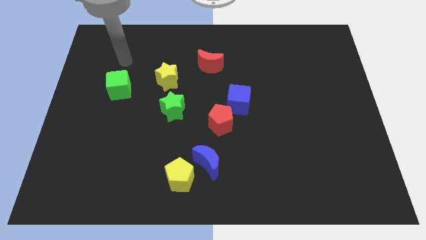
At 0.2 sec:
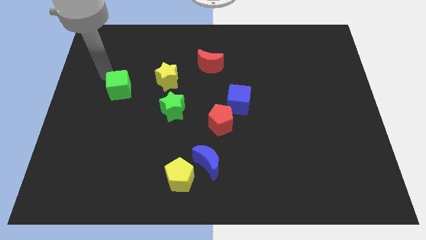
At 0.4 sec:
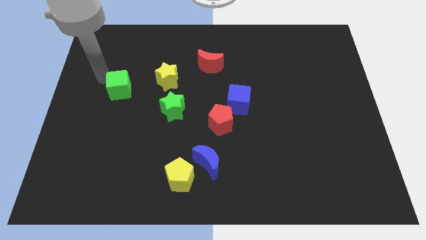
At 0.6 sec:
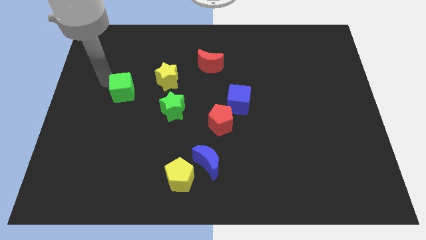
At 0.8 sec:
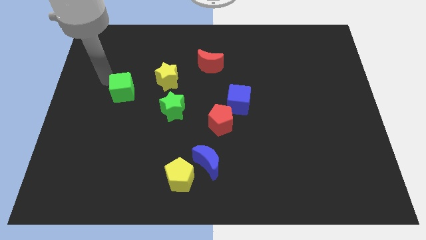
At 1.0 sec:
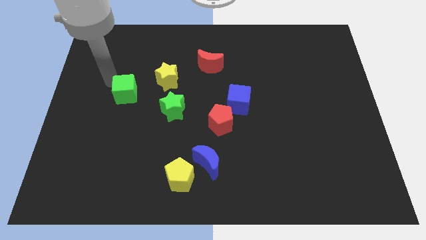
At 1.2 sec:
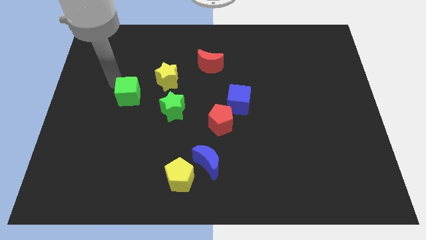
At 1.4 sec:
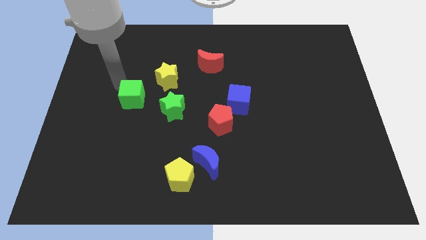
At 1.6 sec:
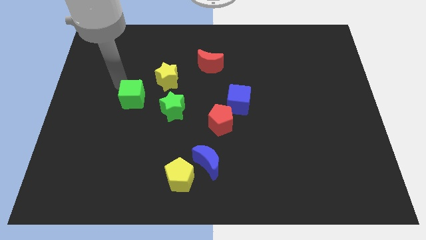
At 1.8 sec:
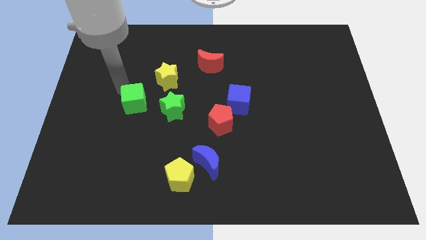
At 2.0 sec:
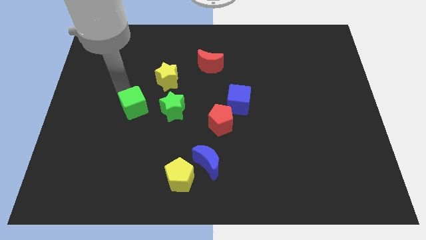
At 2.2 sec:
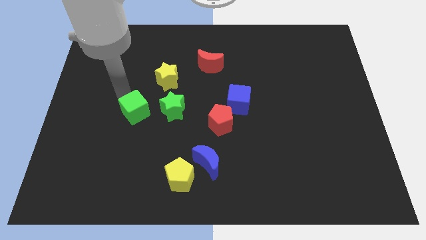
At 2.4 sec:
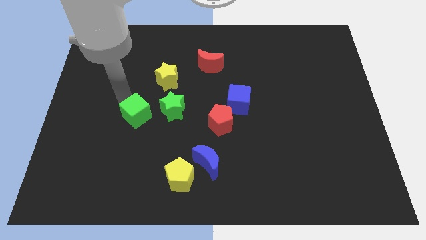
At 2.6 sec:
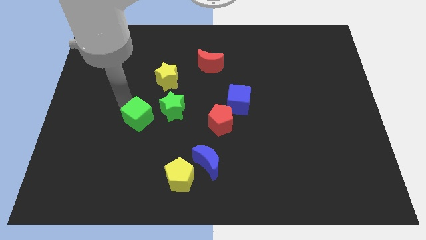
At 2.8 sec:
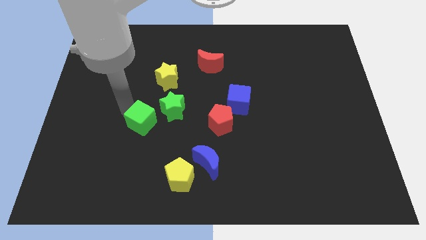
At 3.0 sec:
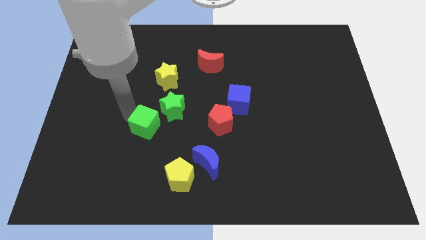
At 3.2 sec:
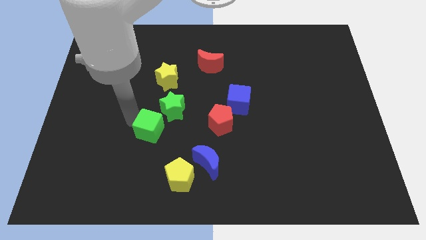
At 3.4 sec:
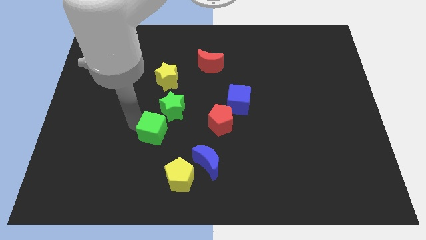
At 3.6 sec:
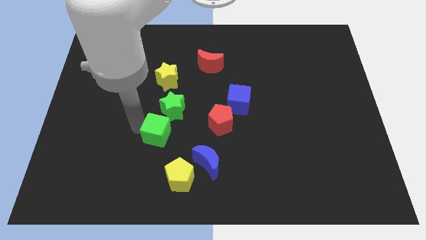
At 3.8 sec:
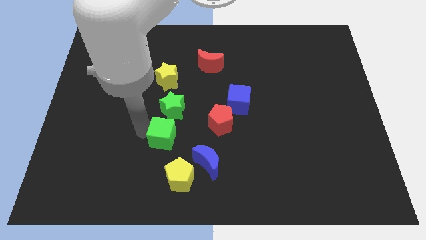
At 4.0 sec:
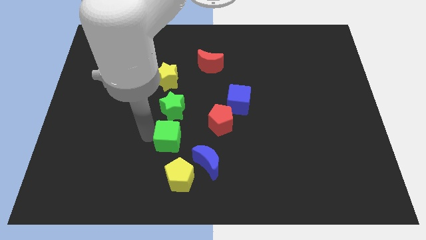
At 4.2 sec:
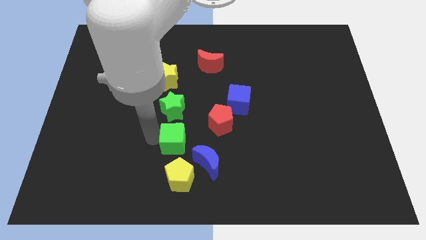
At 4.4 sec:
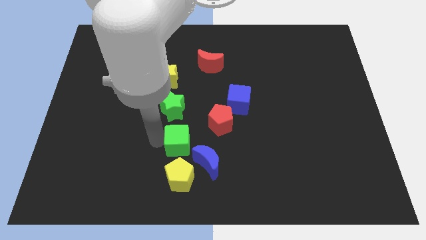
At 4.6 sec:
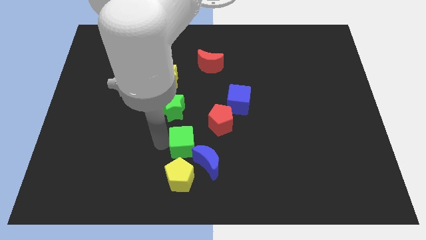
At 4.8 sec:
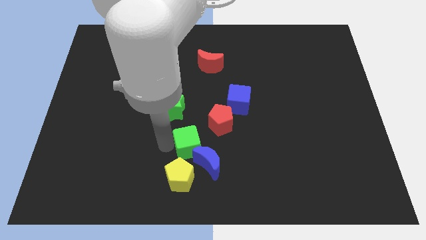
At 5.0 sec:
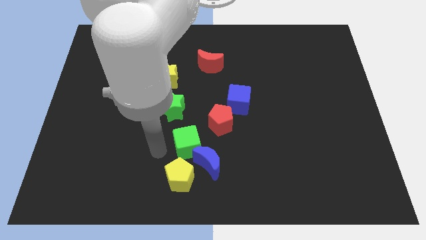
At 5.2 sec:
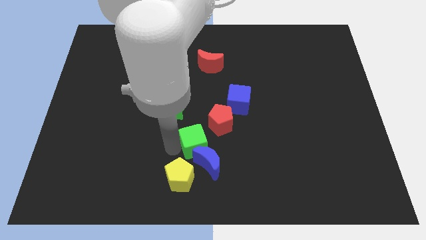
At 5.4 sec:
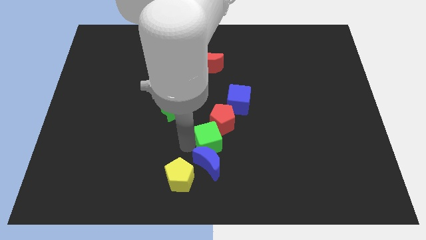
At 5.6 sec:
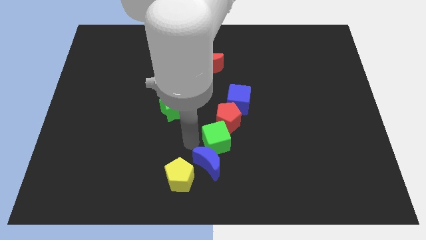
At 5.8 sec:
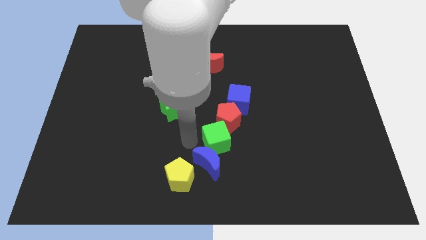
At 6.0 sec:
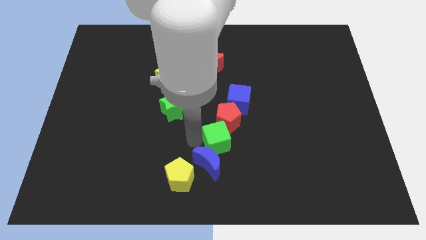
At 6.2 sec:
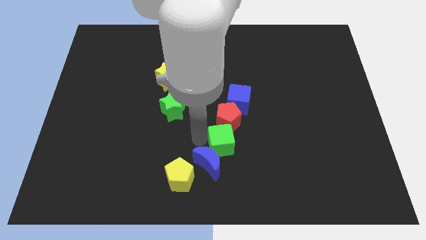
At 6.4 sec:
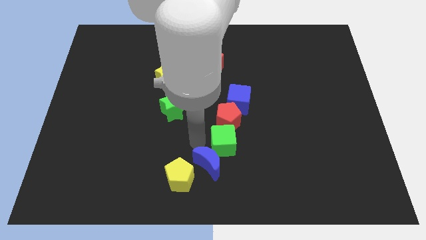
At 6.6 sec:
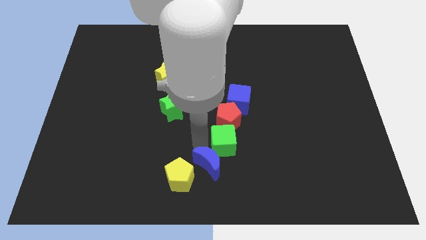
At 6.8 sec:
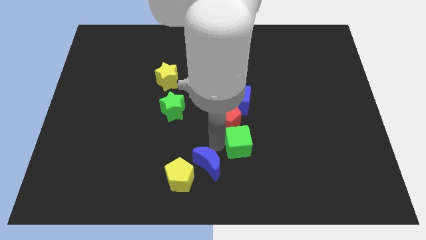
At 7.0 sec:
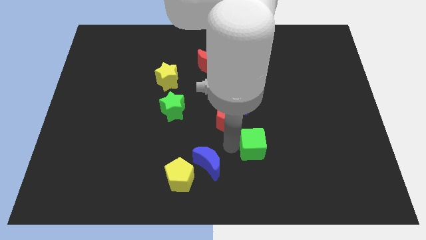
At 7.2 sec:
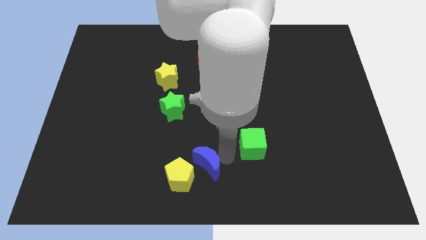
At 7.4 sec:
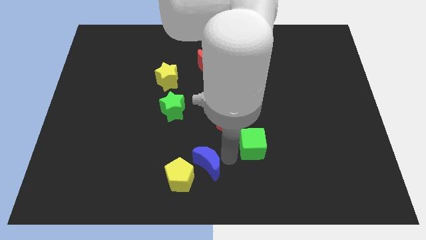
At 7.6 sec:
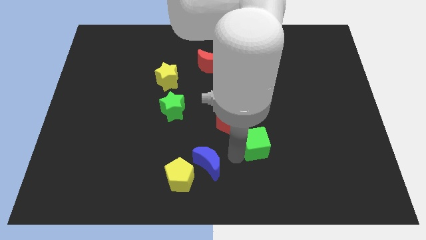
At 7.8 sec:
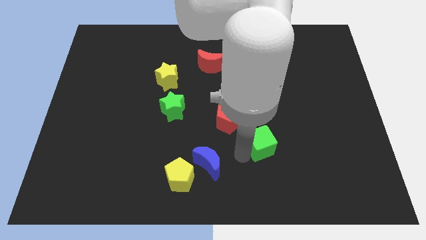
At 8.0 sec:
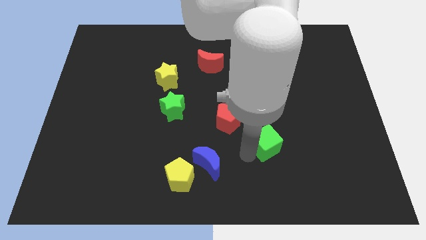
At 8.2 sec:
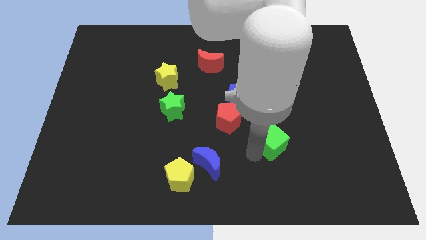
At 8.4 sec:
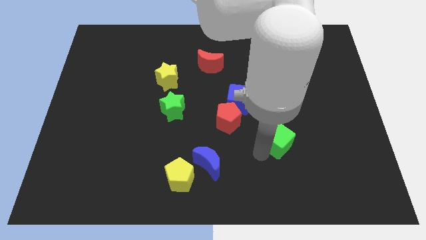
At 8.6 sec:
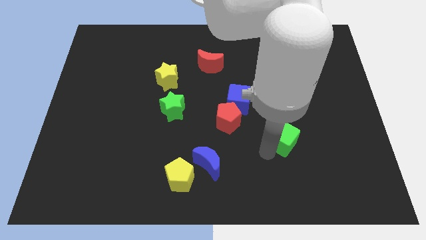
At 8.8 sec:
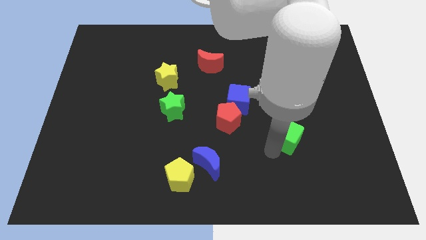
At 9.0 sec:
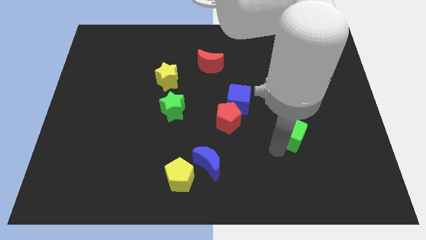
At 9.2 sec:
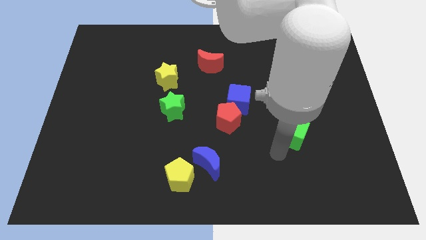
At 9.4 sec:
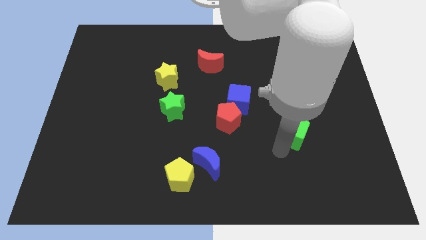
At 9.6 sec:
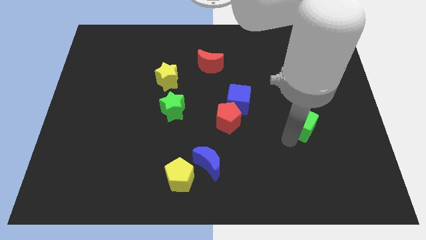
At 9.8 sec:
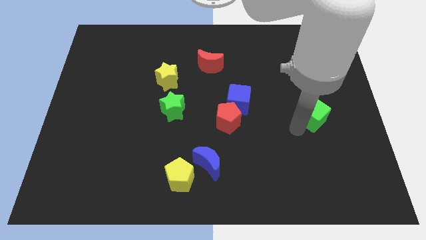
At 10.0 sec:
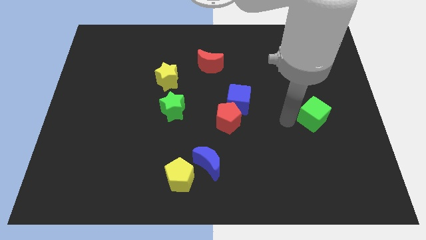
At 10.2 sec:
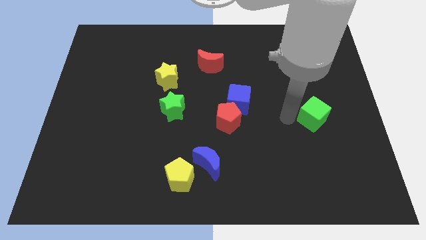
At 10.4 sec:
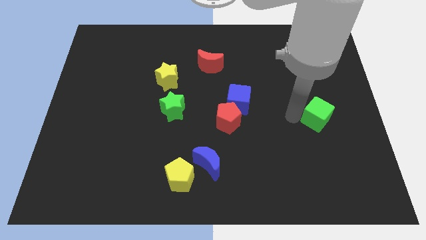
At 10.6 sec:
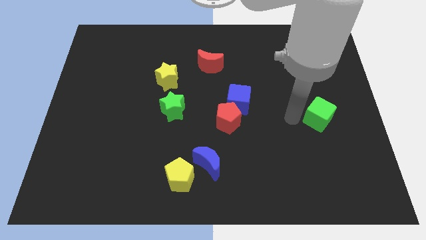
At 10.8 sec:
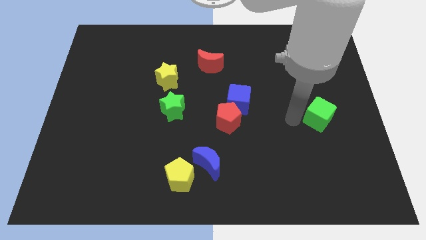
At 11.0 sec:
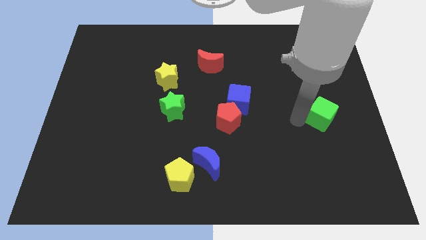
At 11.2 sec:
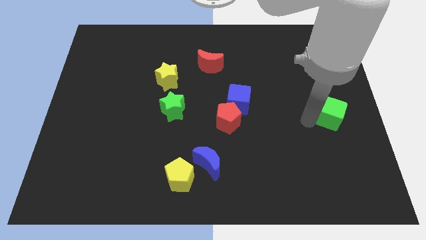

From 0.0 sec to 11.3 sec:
put the green cube to the center right

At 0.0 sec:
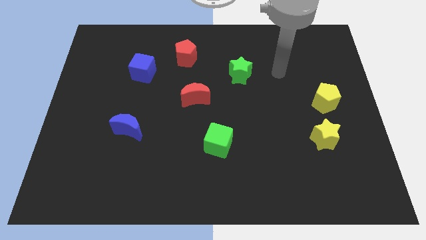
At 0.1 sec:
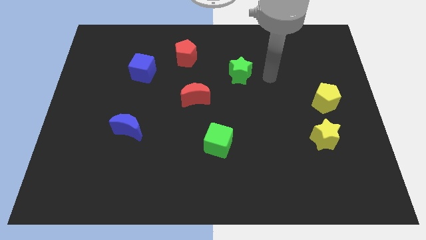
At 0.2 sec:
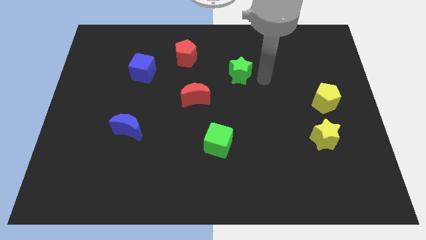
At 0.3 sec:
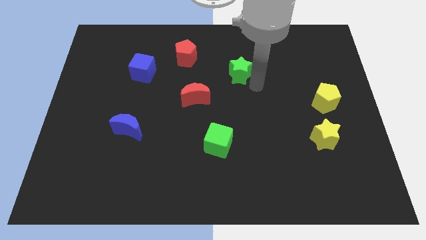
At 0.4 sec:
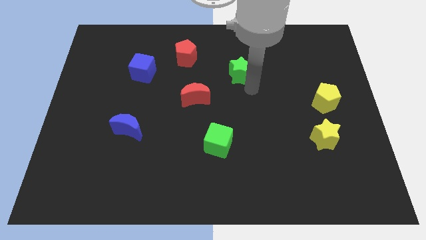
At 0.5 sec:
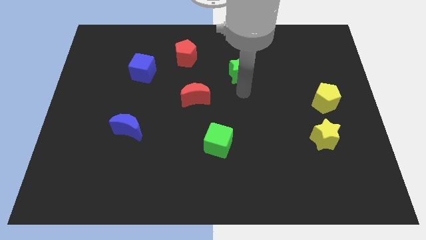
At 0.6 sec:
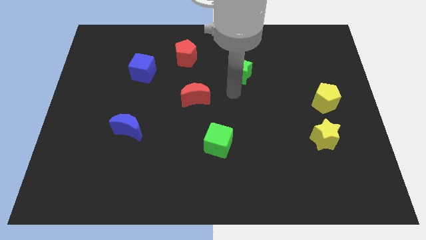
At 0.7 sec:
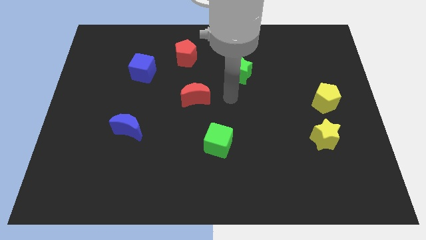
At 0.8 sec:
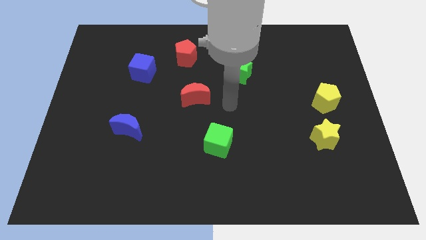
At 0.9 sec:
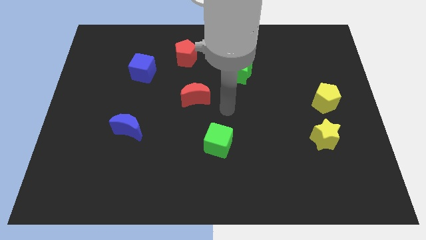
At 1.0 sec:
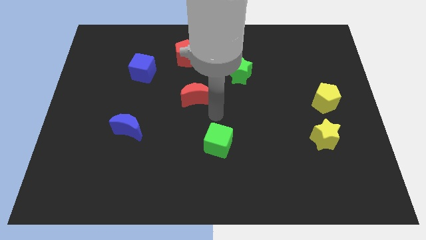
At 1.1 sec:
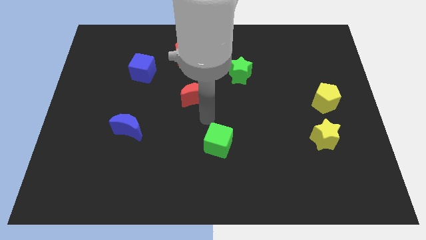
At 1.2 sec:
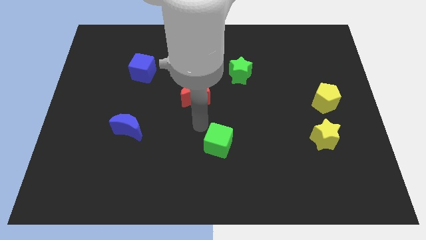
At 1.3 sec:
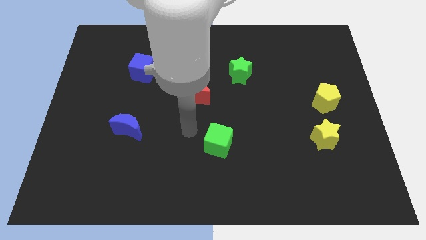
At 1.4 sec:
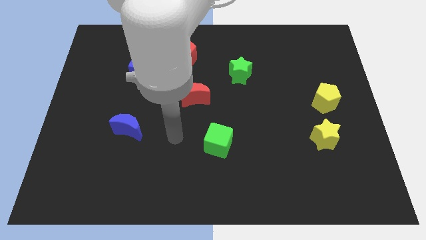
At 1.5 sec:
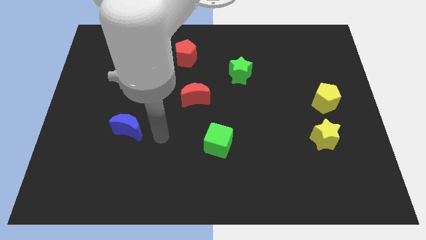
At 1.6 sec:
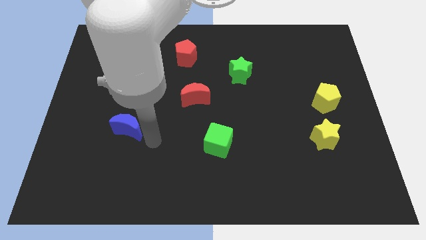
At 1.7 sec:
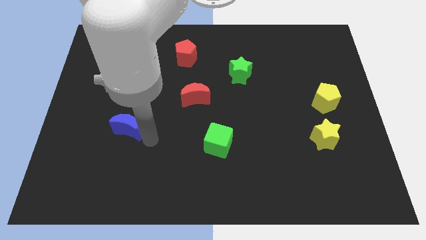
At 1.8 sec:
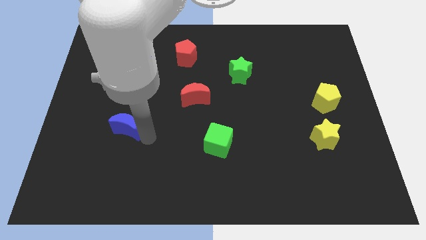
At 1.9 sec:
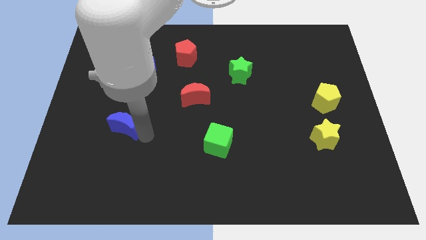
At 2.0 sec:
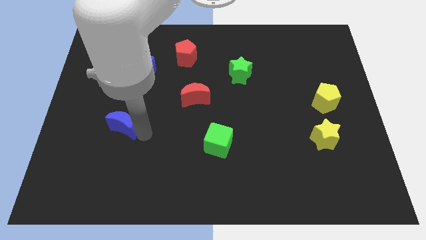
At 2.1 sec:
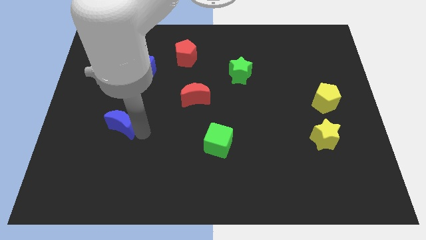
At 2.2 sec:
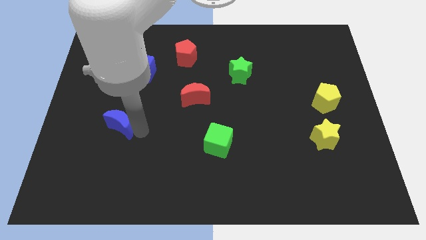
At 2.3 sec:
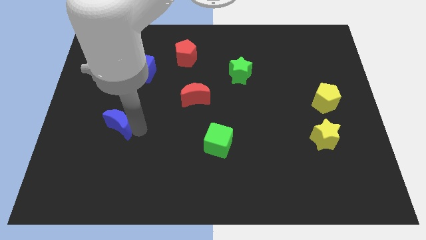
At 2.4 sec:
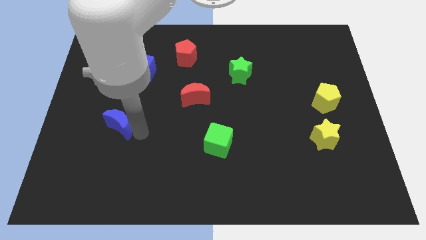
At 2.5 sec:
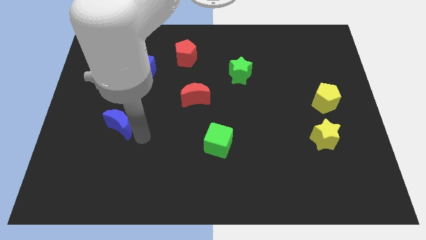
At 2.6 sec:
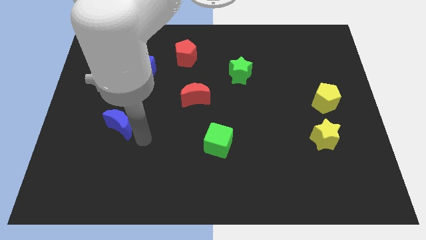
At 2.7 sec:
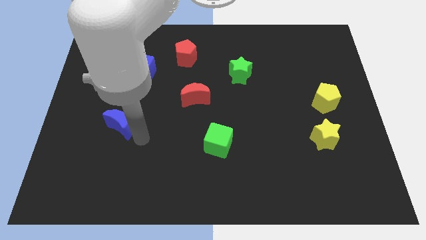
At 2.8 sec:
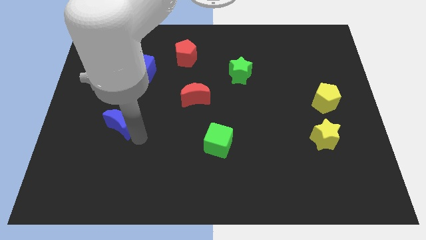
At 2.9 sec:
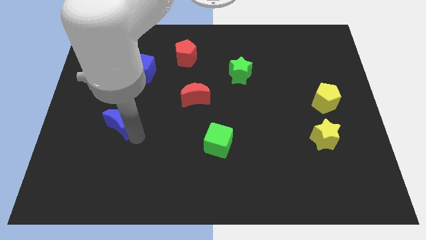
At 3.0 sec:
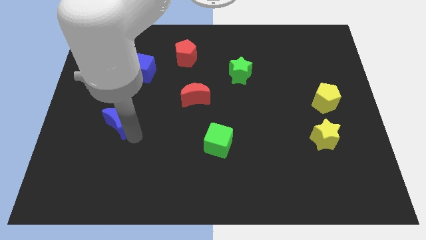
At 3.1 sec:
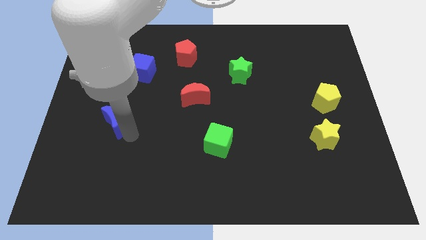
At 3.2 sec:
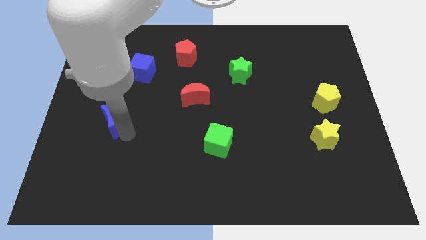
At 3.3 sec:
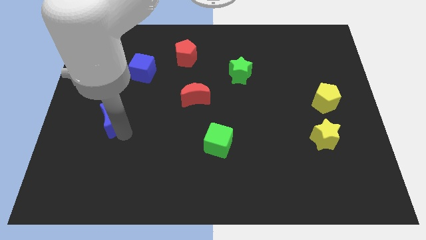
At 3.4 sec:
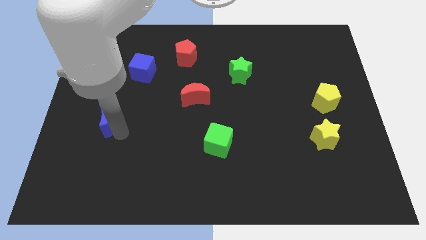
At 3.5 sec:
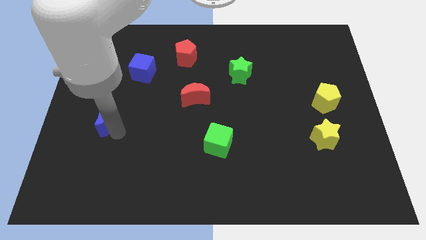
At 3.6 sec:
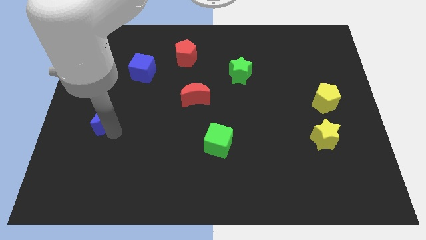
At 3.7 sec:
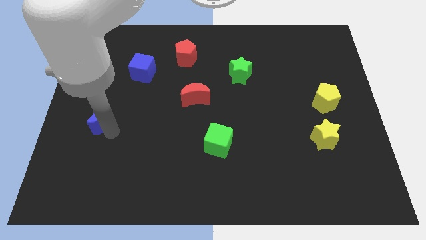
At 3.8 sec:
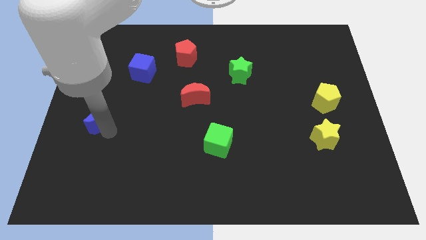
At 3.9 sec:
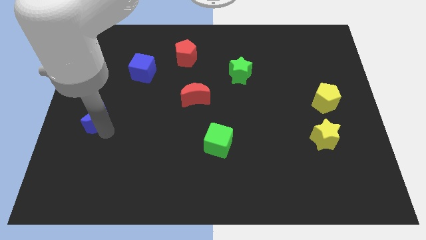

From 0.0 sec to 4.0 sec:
put the blue moon to the left side
